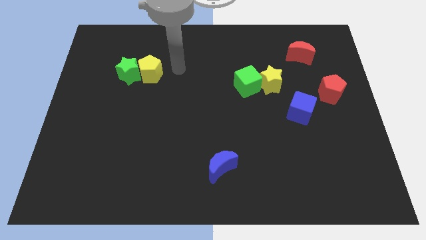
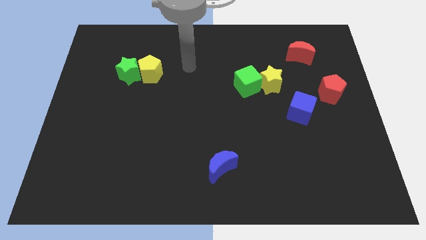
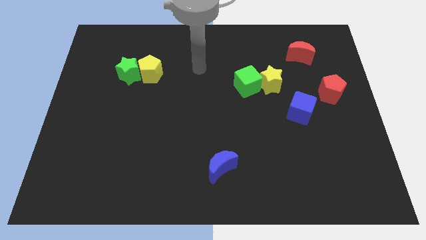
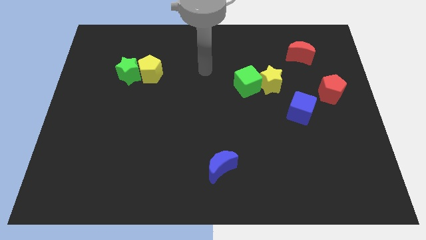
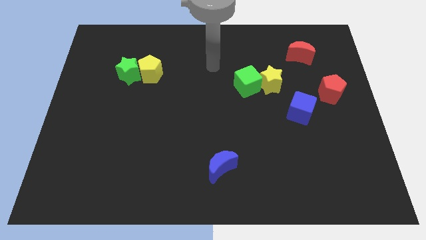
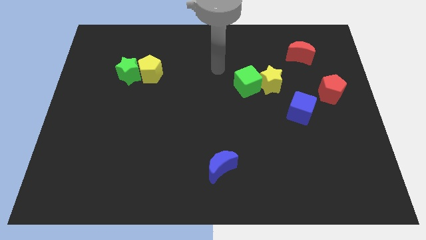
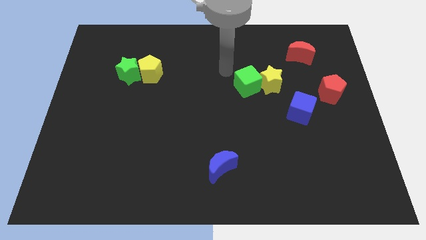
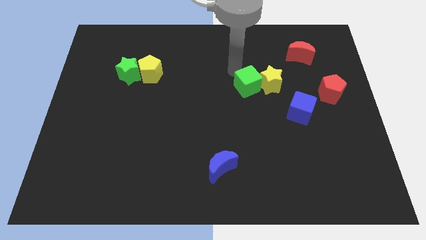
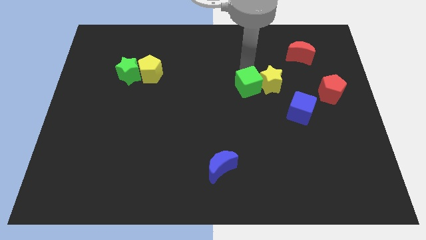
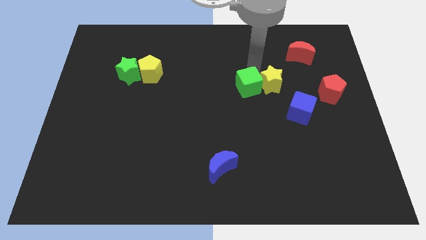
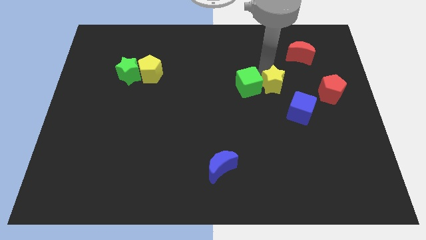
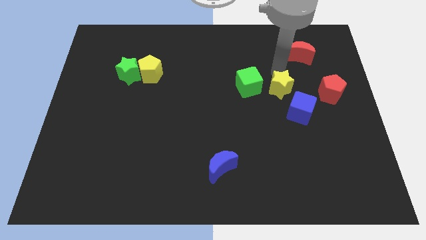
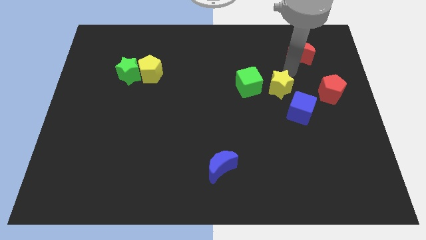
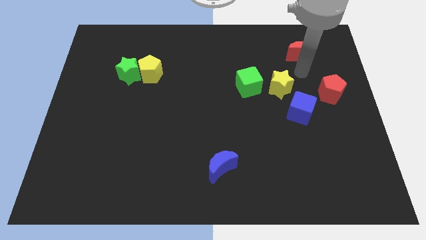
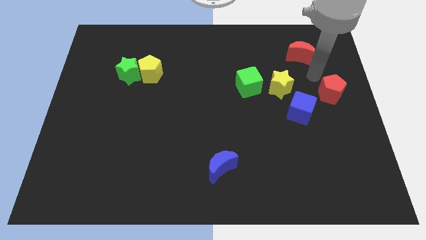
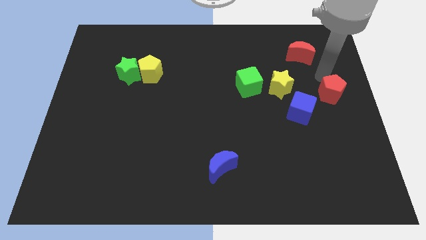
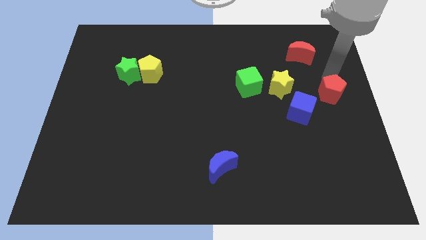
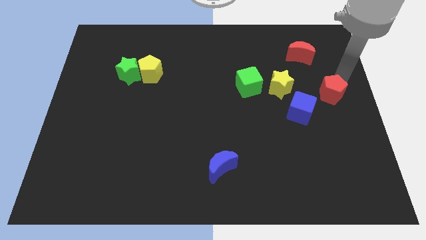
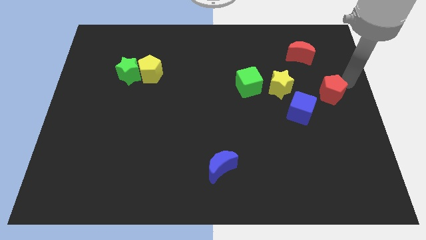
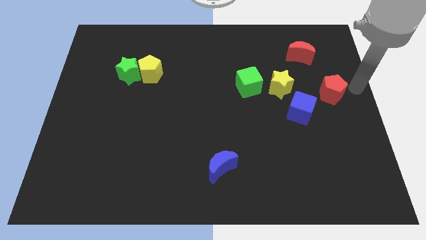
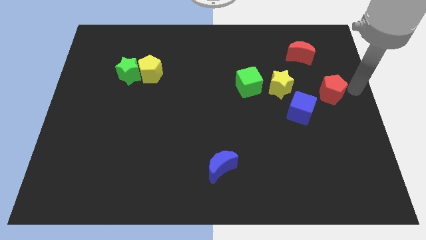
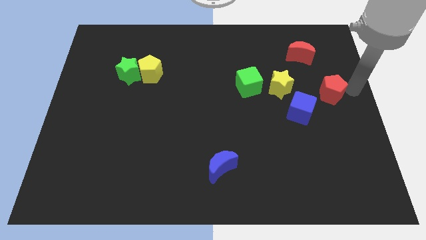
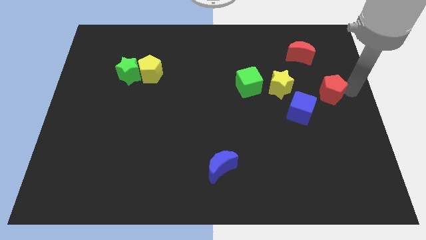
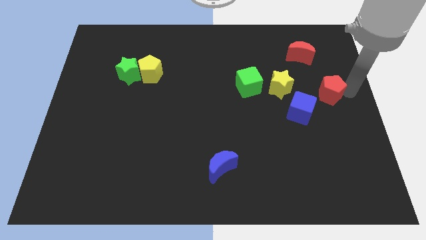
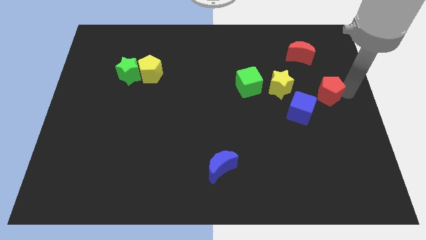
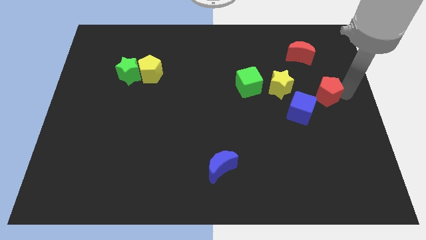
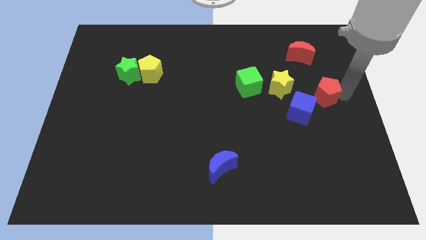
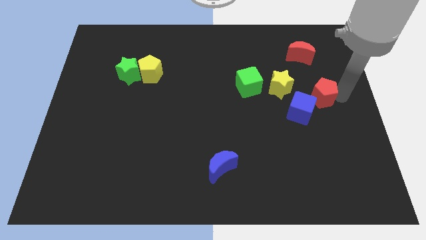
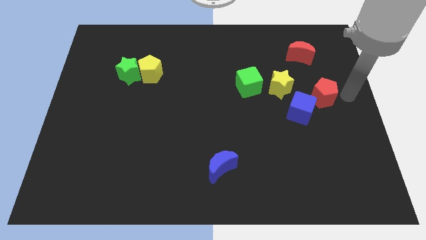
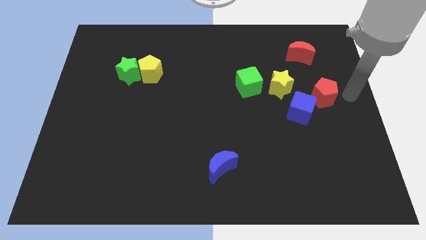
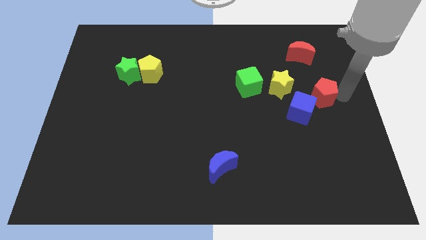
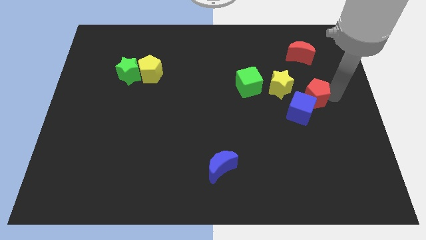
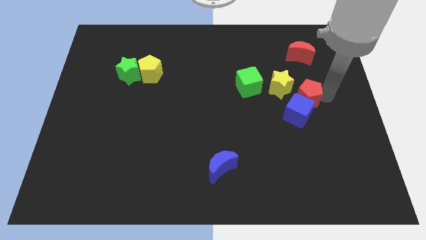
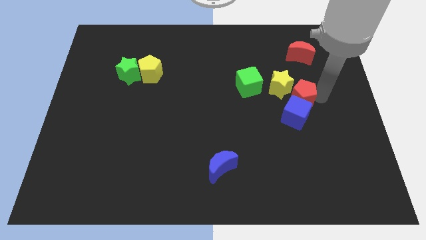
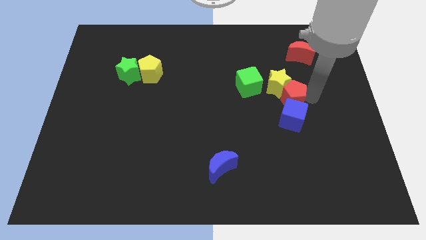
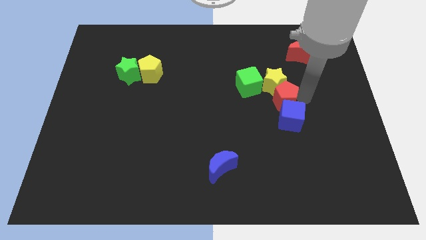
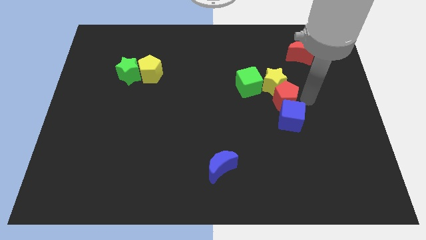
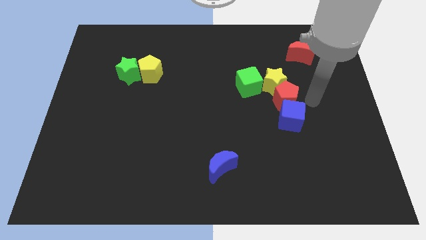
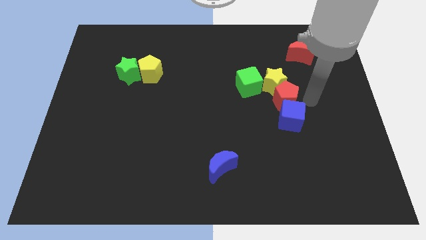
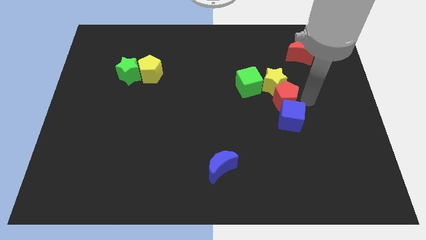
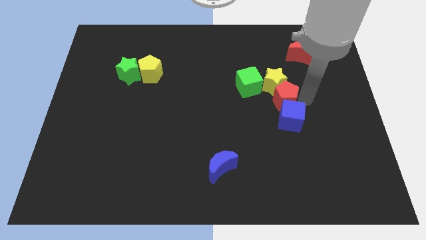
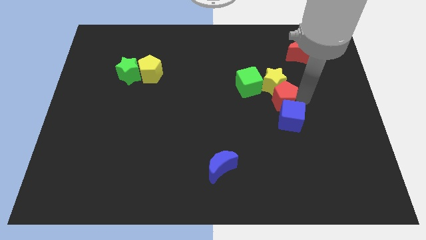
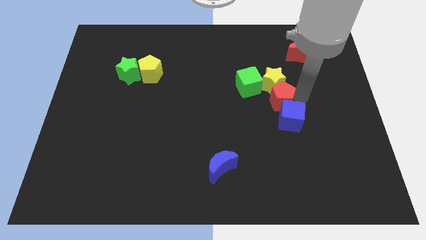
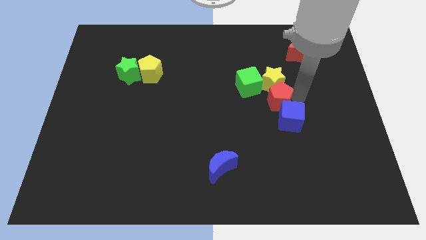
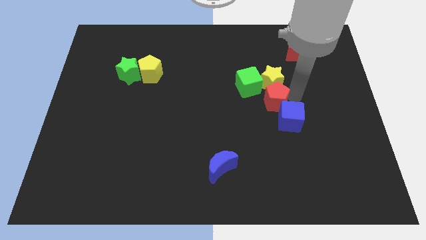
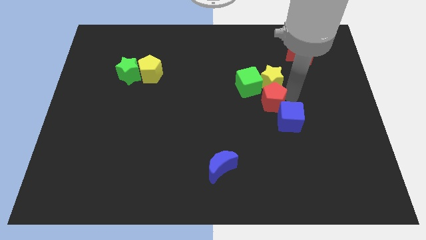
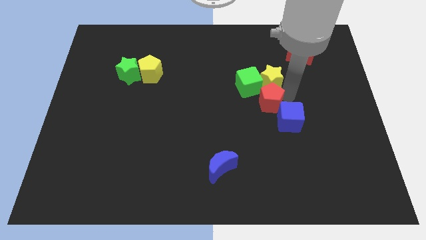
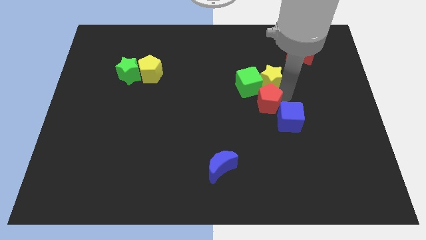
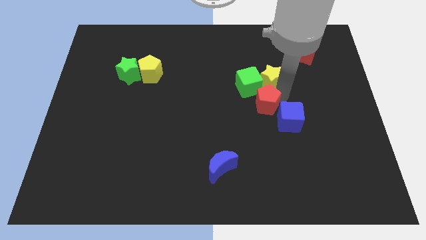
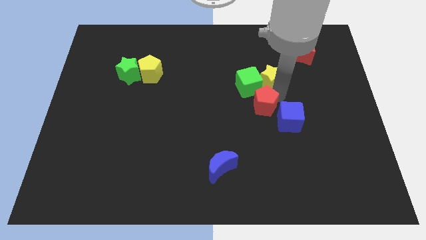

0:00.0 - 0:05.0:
slide the red pentagon to the middle of the board
